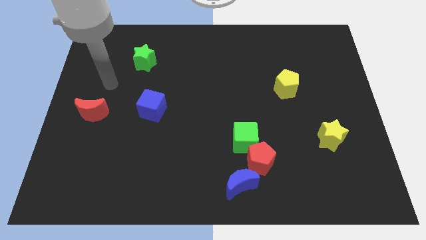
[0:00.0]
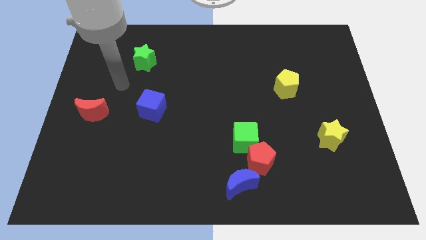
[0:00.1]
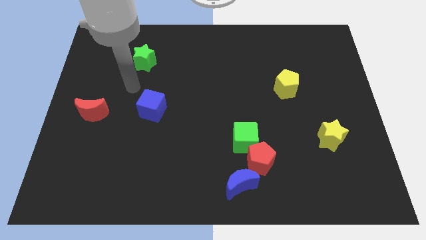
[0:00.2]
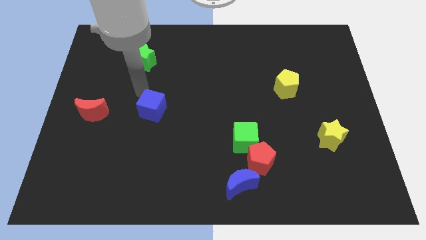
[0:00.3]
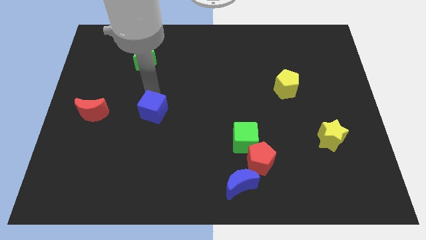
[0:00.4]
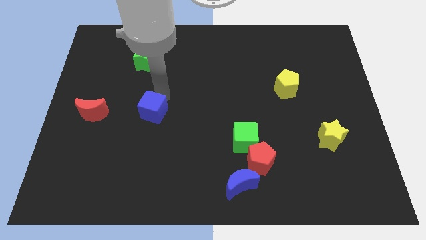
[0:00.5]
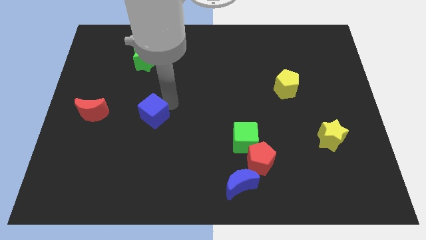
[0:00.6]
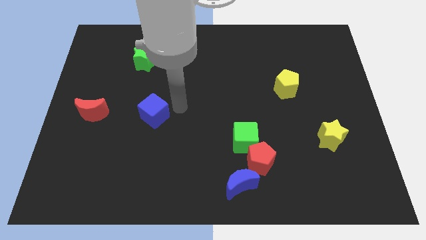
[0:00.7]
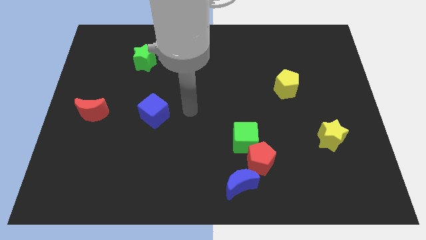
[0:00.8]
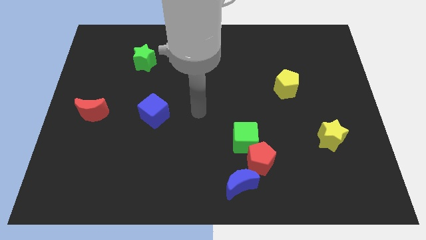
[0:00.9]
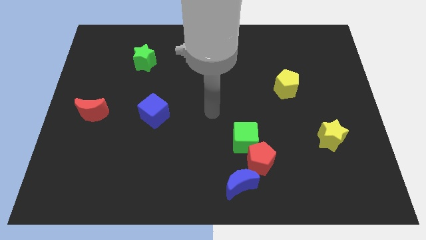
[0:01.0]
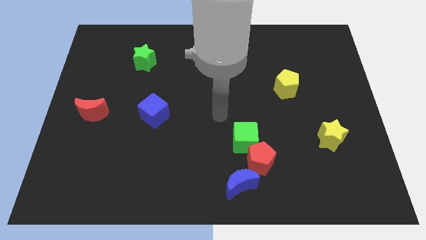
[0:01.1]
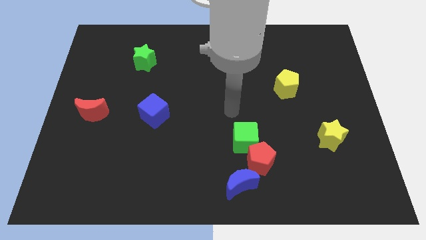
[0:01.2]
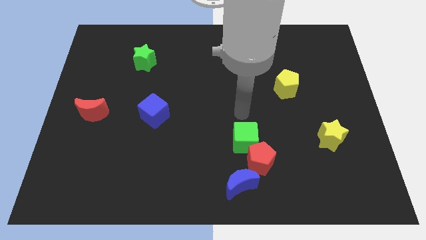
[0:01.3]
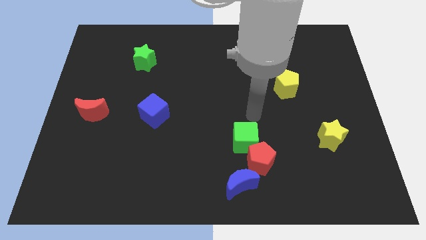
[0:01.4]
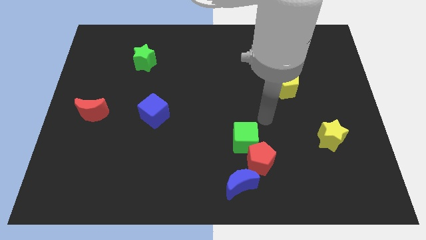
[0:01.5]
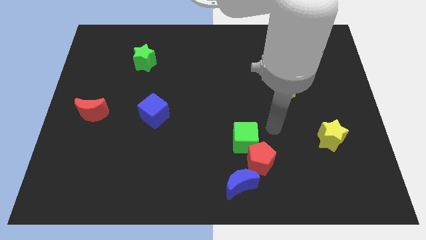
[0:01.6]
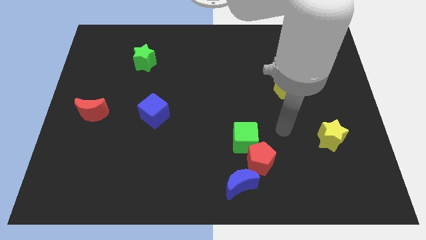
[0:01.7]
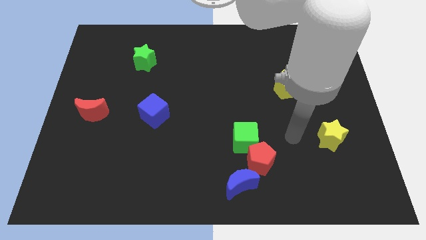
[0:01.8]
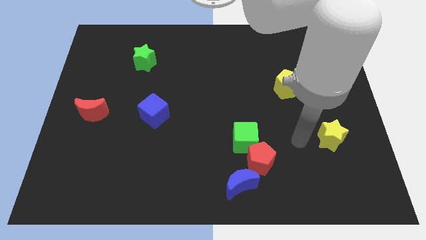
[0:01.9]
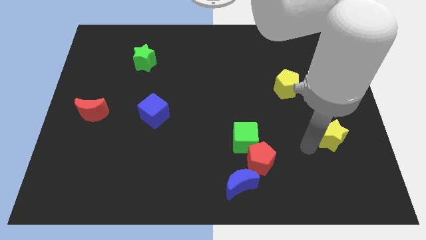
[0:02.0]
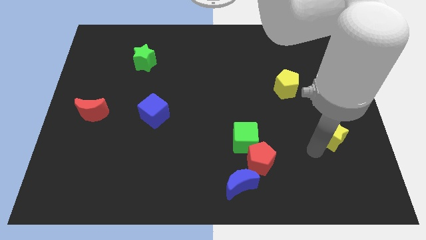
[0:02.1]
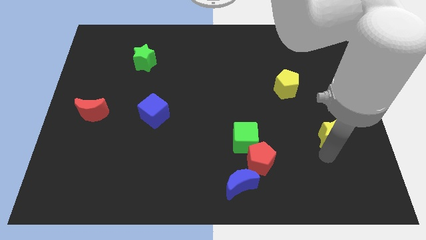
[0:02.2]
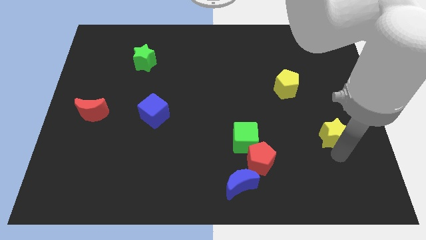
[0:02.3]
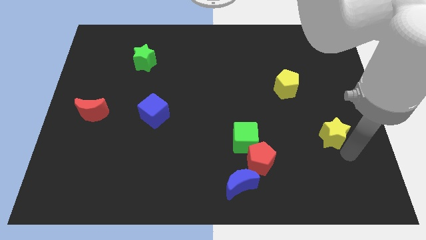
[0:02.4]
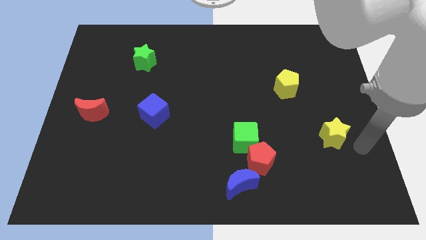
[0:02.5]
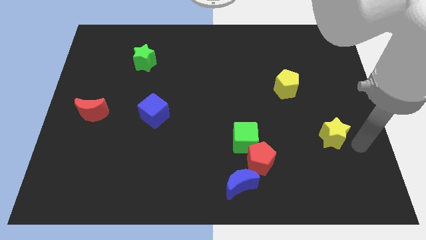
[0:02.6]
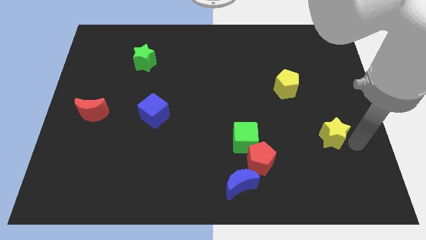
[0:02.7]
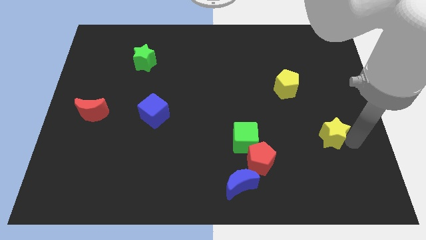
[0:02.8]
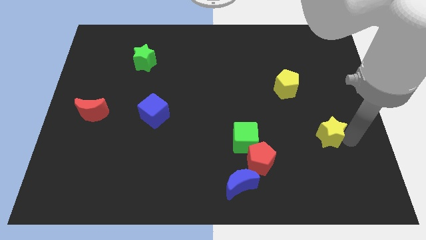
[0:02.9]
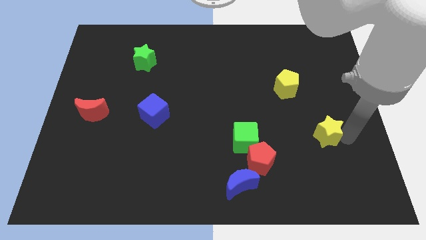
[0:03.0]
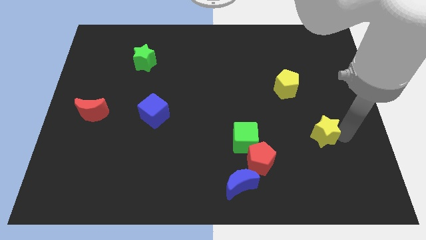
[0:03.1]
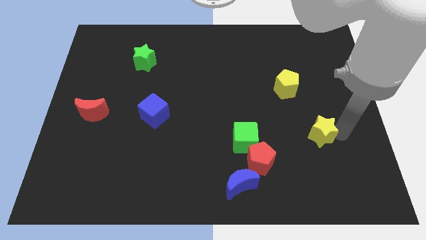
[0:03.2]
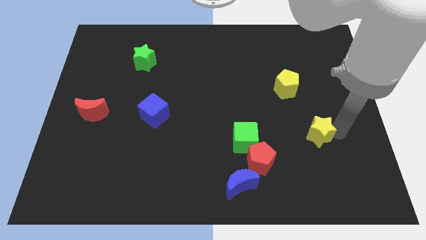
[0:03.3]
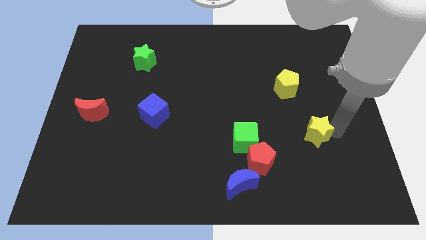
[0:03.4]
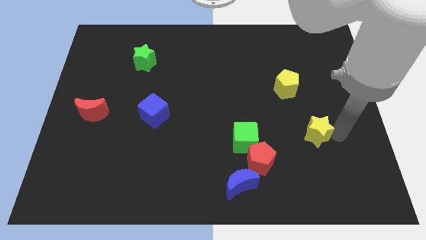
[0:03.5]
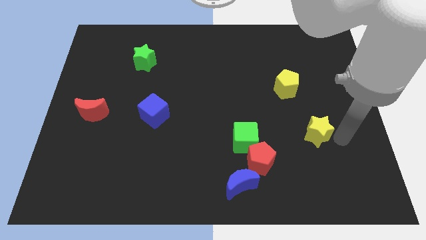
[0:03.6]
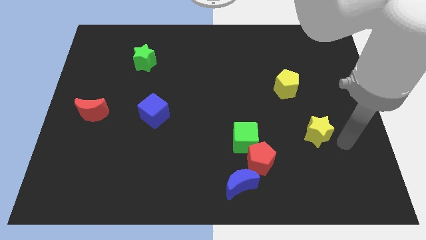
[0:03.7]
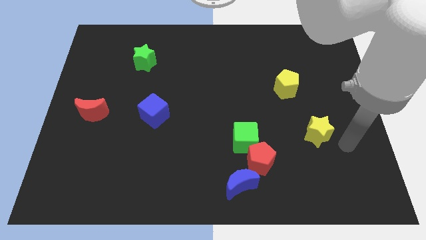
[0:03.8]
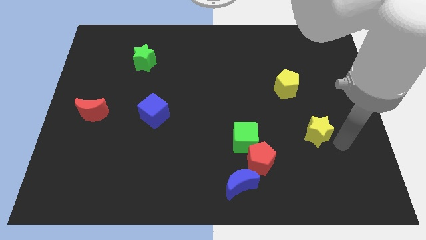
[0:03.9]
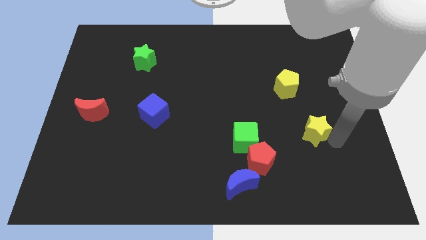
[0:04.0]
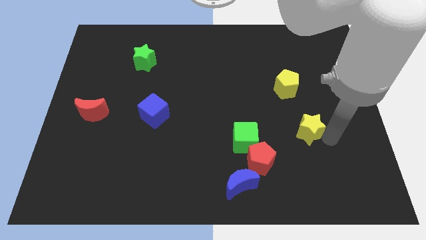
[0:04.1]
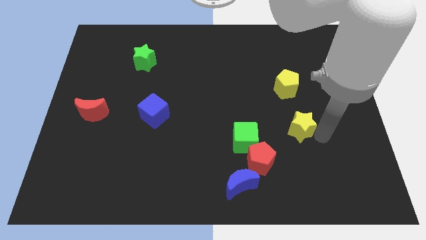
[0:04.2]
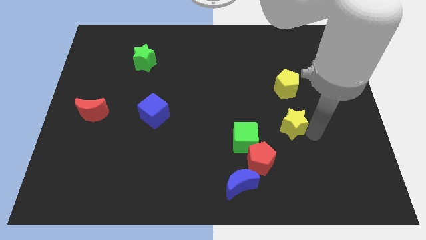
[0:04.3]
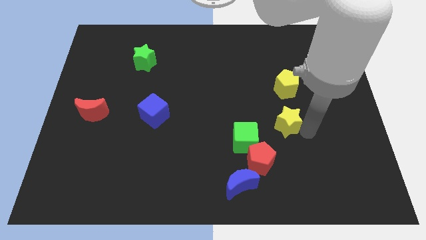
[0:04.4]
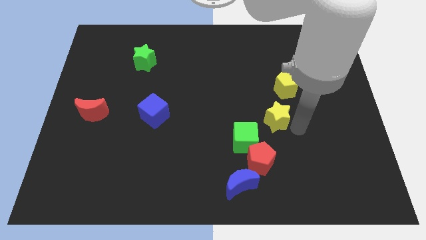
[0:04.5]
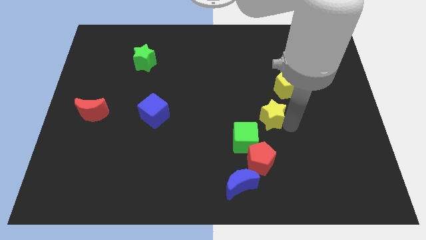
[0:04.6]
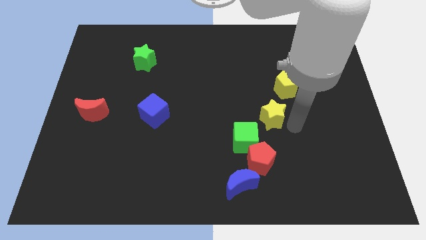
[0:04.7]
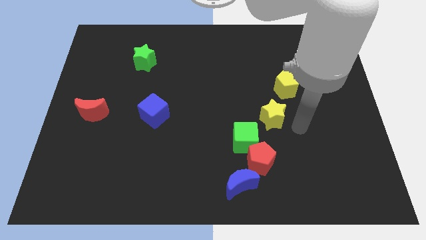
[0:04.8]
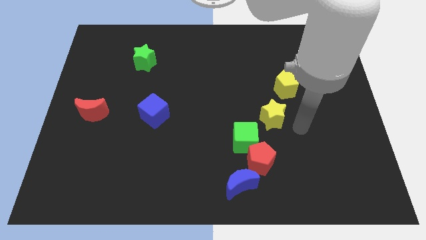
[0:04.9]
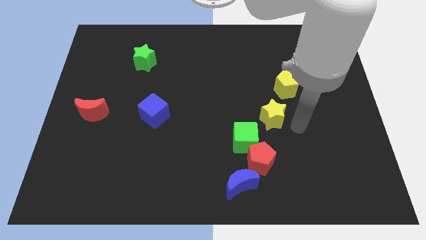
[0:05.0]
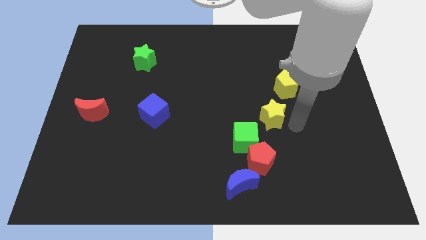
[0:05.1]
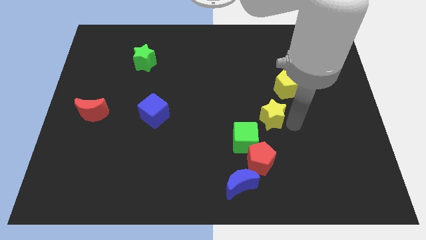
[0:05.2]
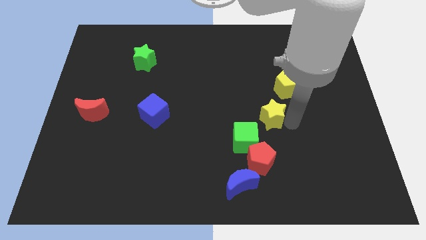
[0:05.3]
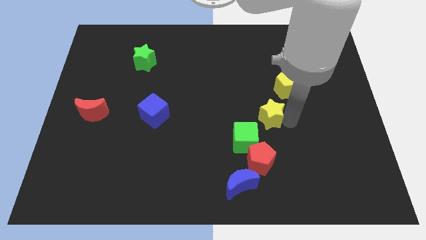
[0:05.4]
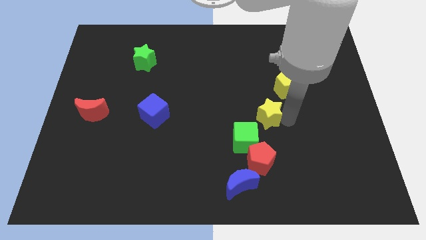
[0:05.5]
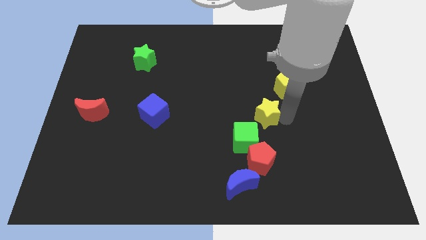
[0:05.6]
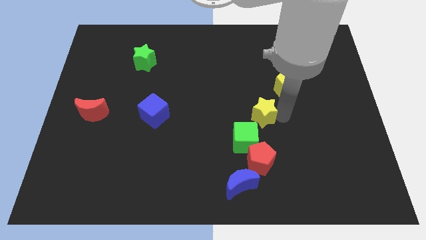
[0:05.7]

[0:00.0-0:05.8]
slide the yellow star to the center
